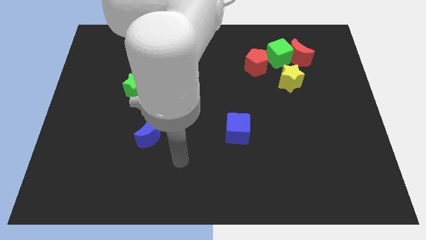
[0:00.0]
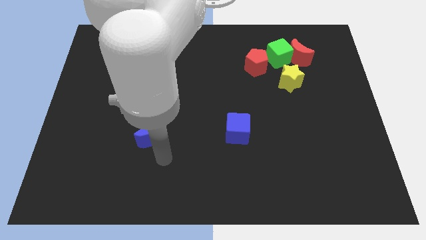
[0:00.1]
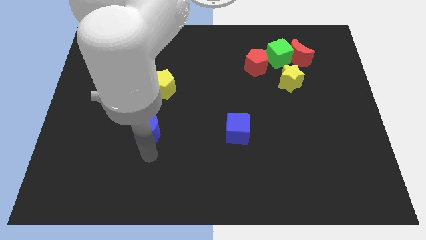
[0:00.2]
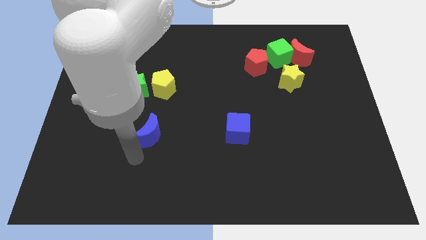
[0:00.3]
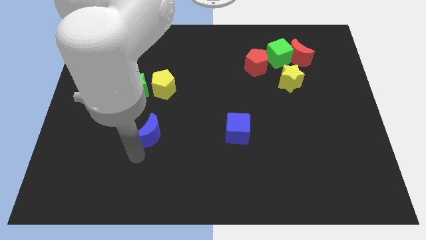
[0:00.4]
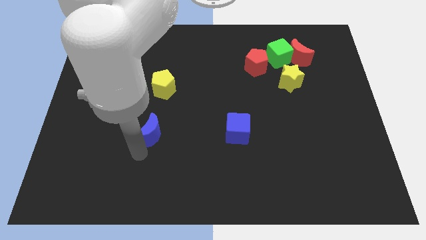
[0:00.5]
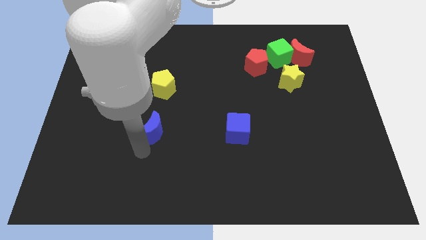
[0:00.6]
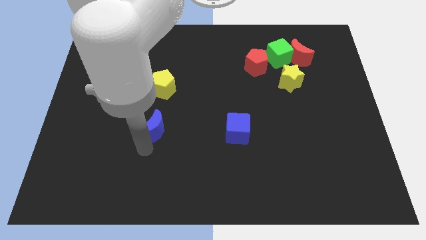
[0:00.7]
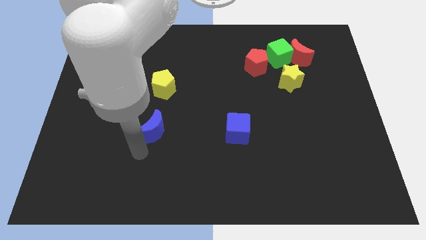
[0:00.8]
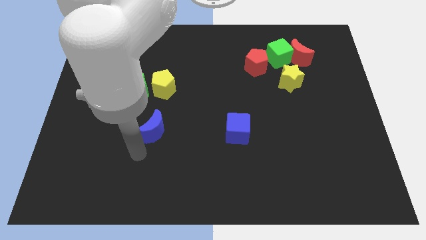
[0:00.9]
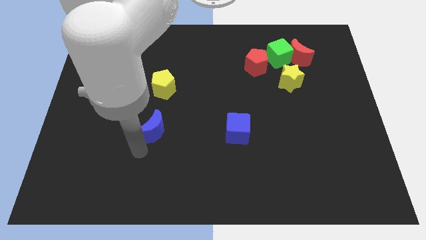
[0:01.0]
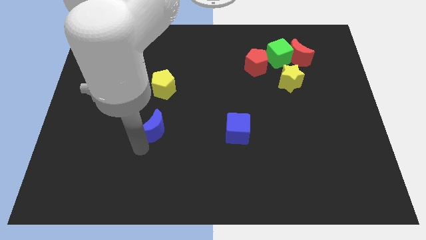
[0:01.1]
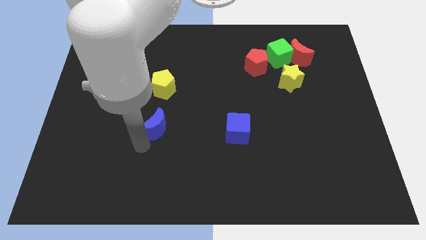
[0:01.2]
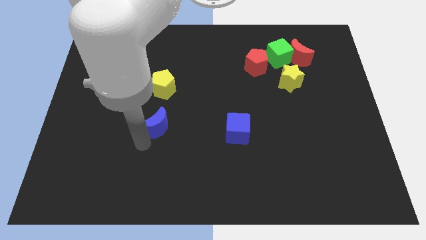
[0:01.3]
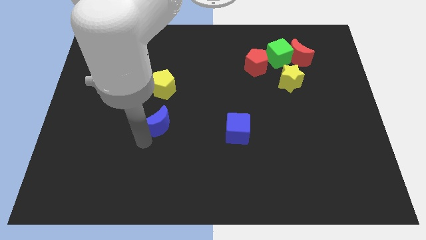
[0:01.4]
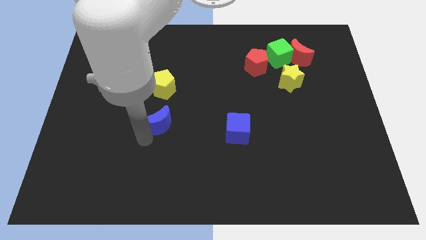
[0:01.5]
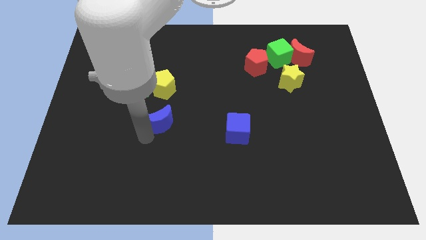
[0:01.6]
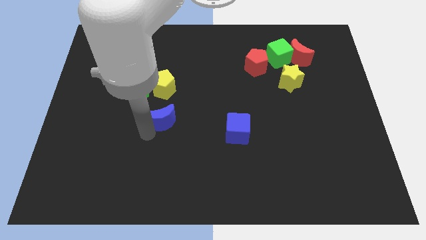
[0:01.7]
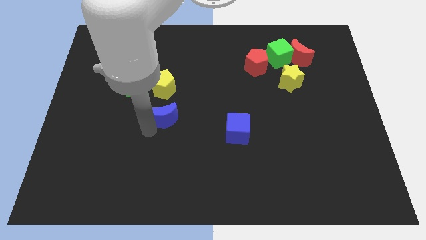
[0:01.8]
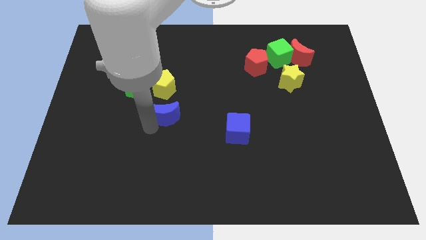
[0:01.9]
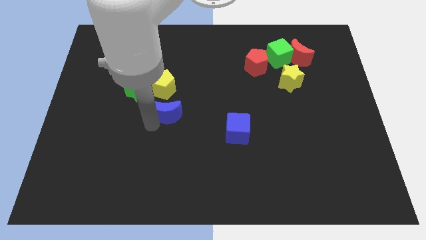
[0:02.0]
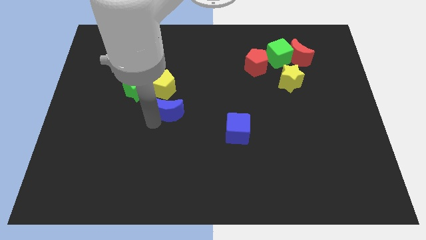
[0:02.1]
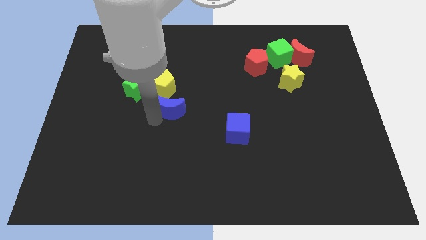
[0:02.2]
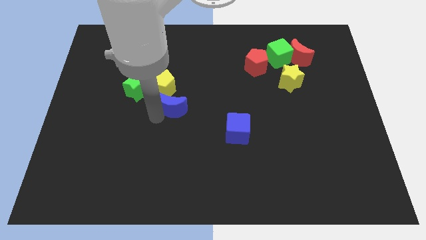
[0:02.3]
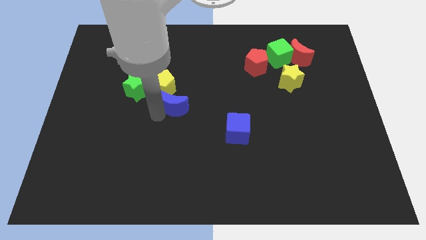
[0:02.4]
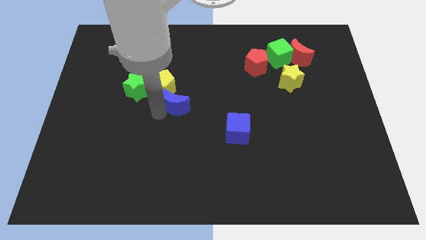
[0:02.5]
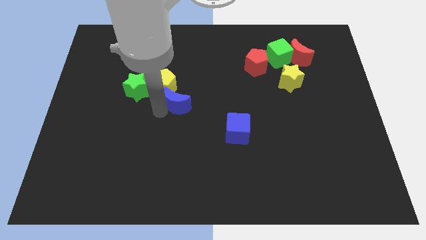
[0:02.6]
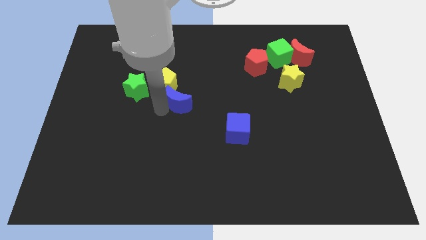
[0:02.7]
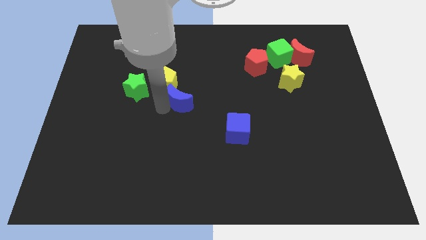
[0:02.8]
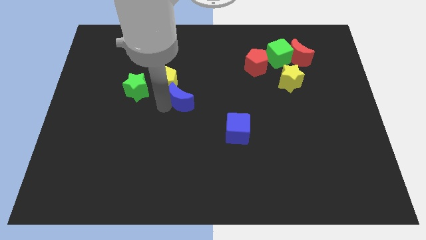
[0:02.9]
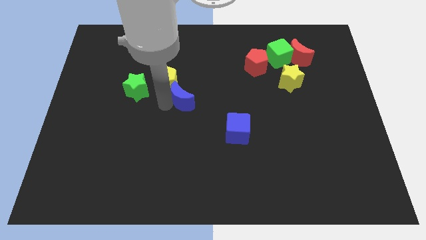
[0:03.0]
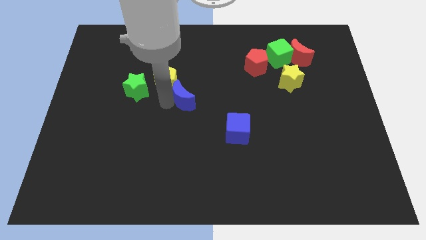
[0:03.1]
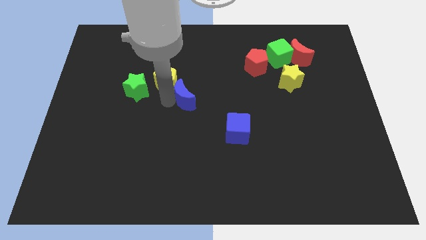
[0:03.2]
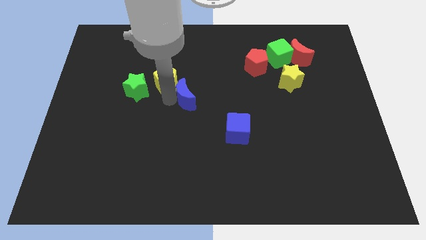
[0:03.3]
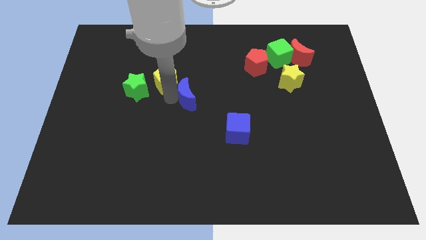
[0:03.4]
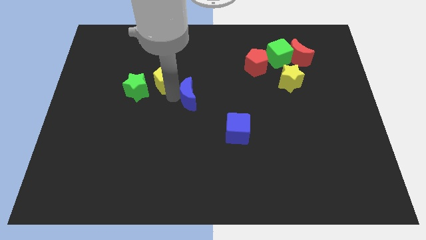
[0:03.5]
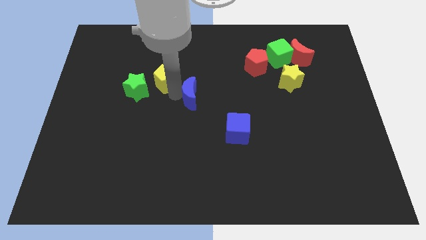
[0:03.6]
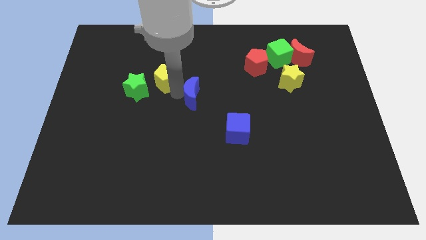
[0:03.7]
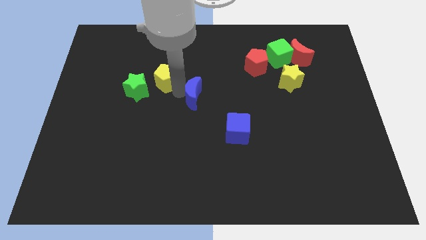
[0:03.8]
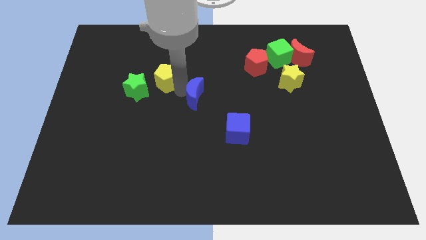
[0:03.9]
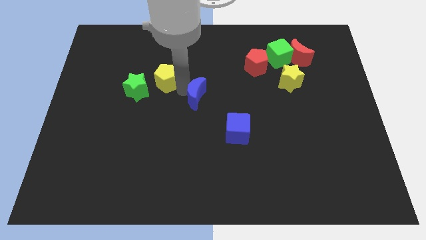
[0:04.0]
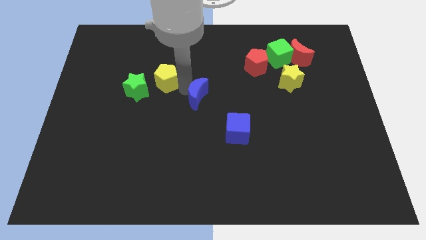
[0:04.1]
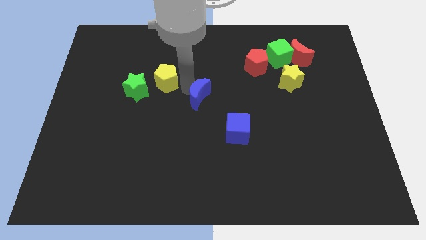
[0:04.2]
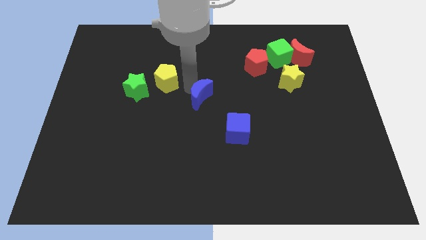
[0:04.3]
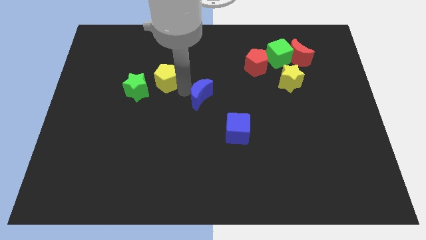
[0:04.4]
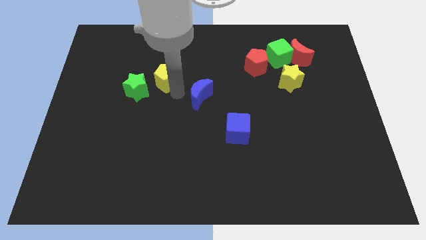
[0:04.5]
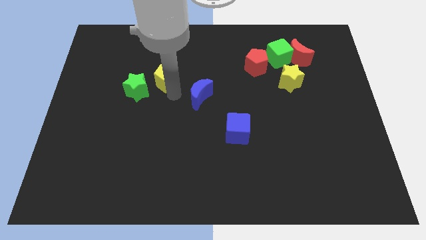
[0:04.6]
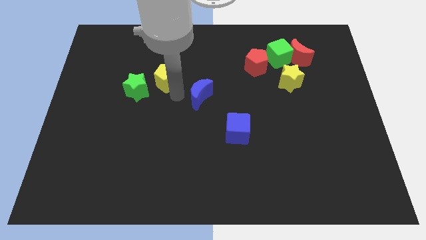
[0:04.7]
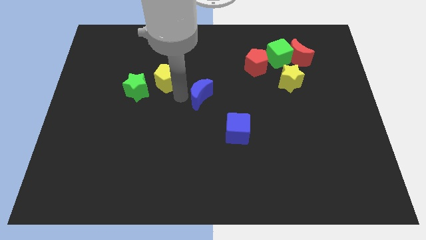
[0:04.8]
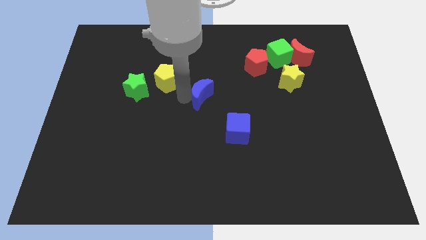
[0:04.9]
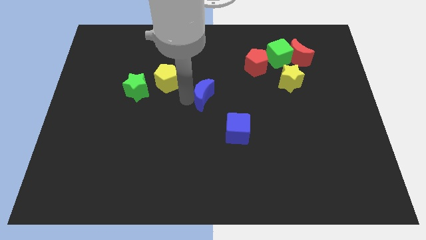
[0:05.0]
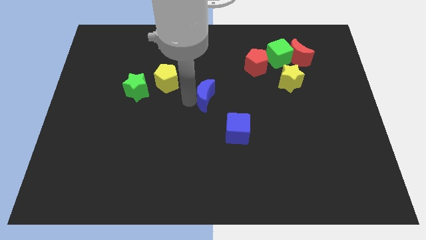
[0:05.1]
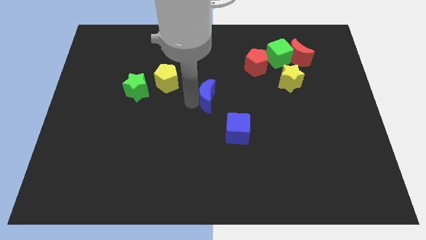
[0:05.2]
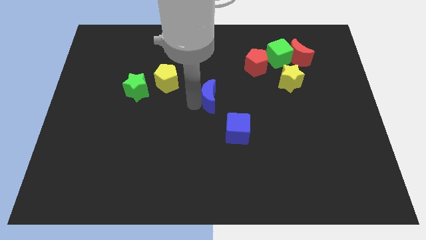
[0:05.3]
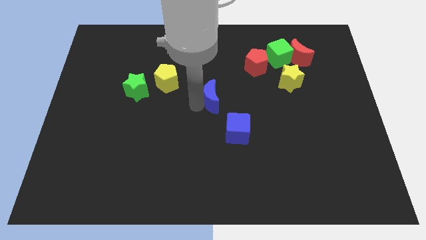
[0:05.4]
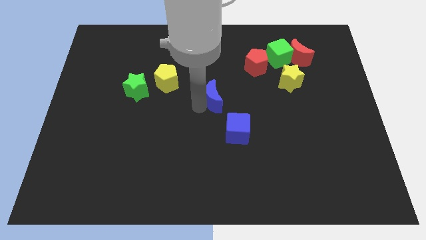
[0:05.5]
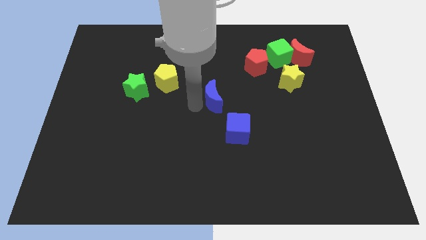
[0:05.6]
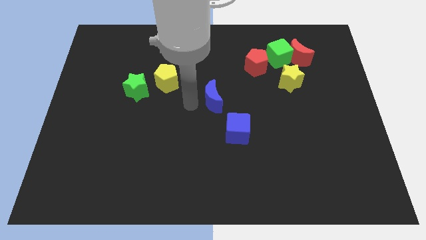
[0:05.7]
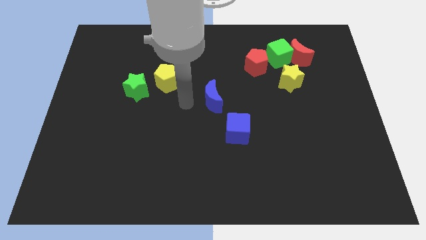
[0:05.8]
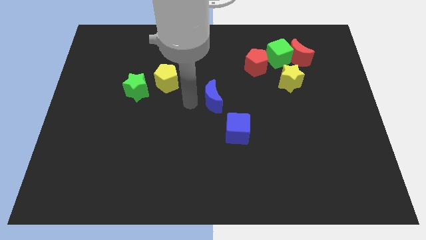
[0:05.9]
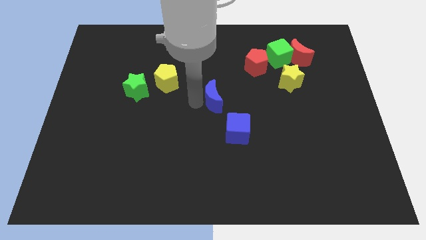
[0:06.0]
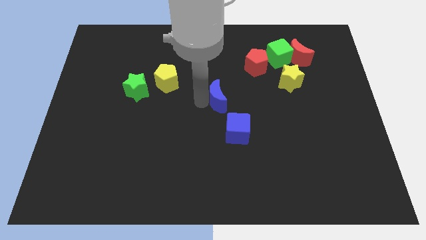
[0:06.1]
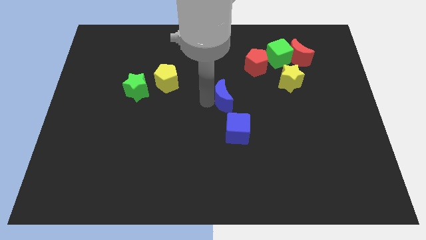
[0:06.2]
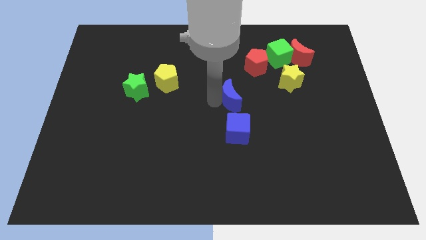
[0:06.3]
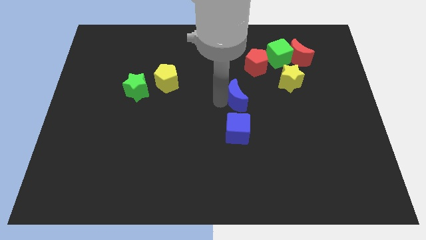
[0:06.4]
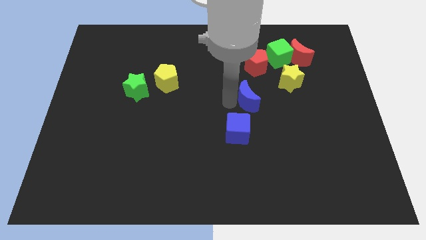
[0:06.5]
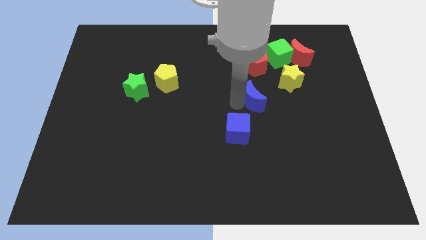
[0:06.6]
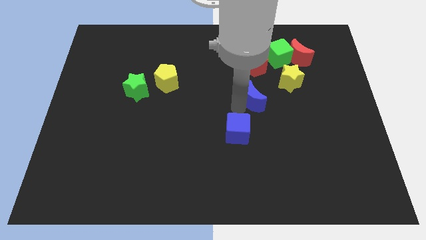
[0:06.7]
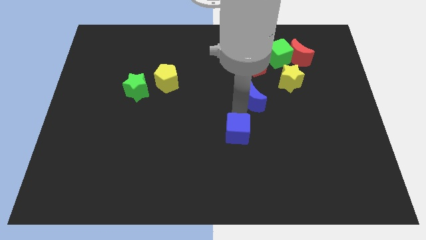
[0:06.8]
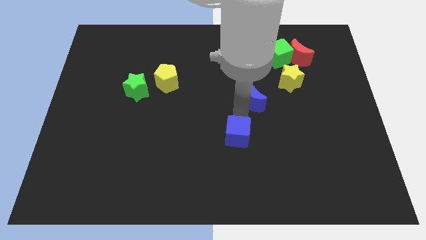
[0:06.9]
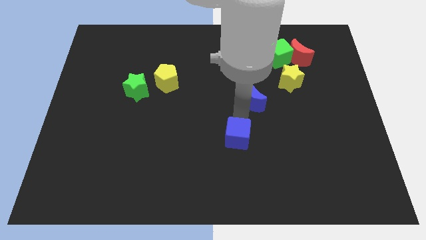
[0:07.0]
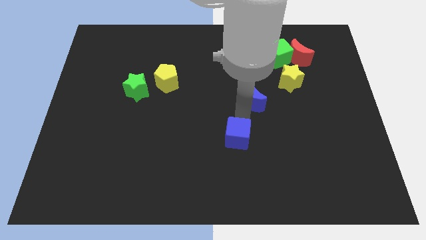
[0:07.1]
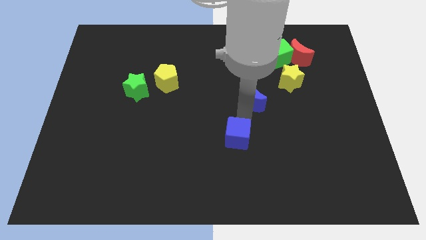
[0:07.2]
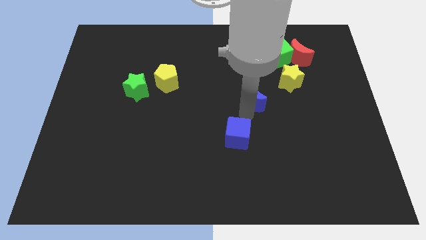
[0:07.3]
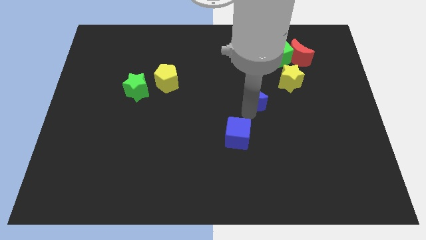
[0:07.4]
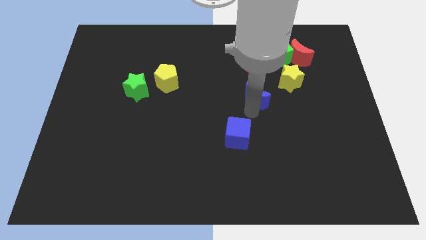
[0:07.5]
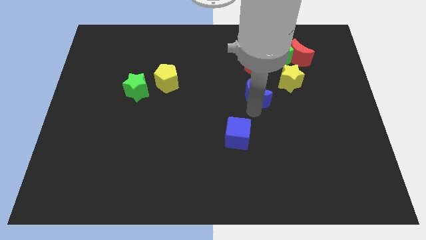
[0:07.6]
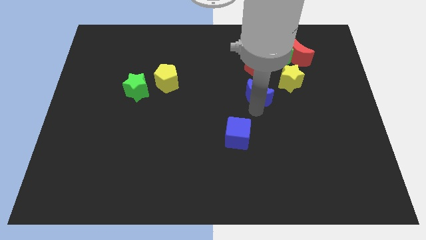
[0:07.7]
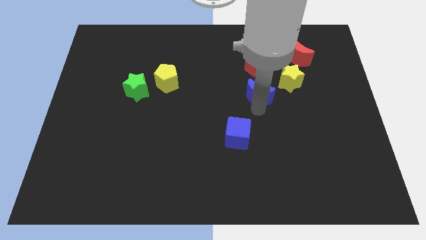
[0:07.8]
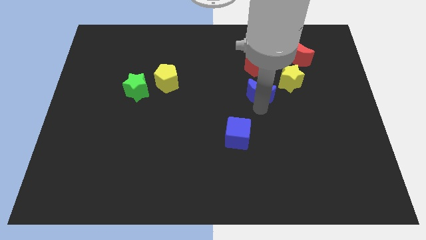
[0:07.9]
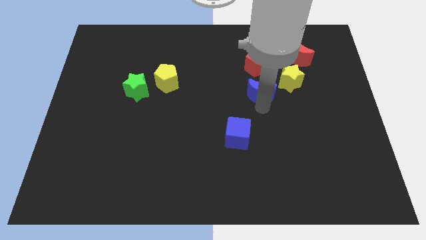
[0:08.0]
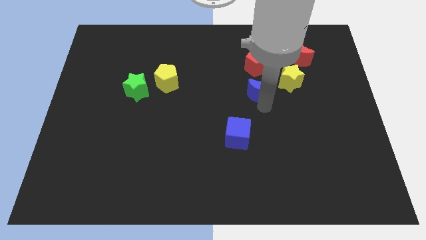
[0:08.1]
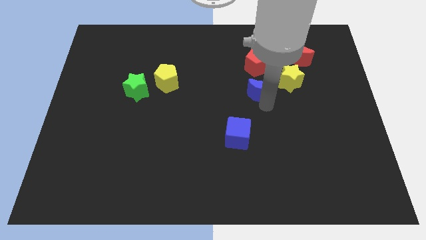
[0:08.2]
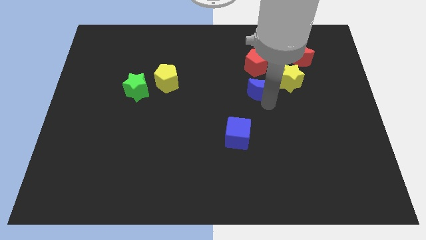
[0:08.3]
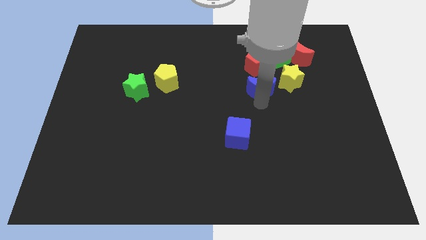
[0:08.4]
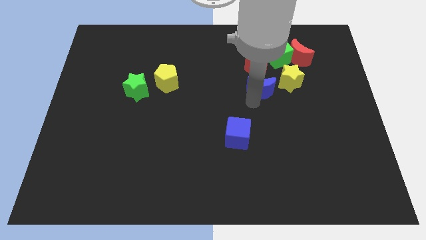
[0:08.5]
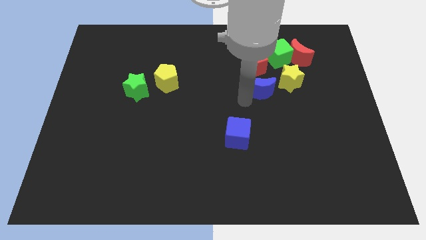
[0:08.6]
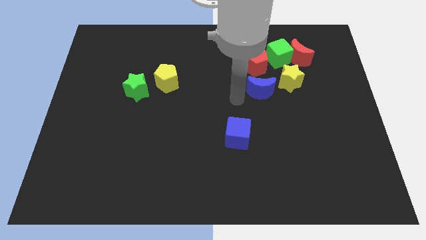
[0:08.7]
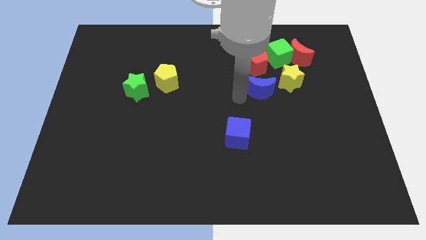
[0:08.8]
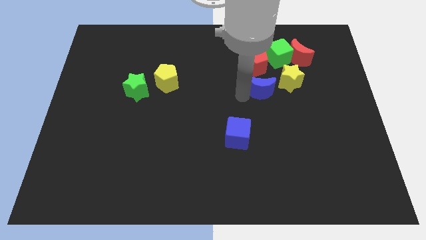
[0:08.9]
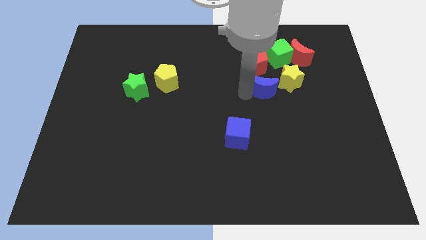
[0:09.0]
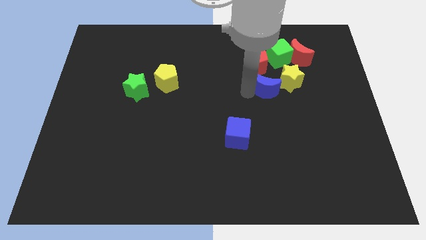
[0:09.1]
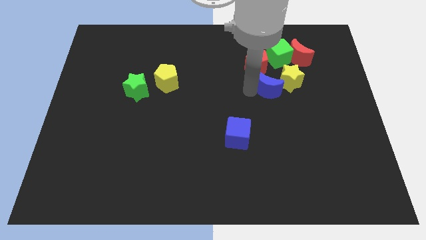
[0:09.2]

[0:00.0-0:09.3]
slide the blue moon next to the yellow star
